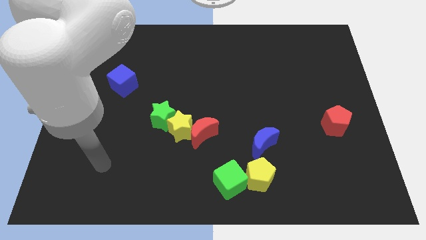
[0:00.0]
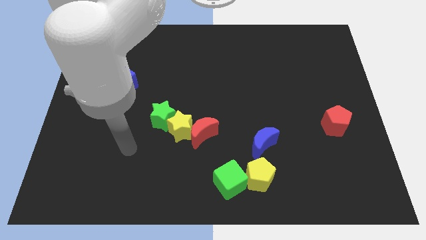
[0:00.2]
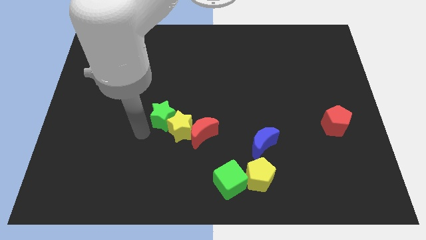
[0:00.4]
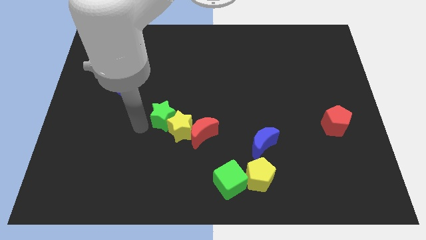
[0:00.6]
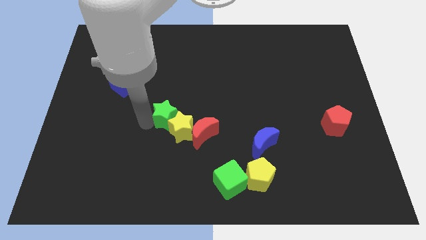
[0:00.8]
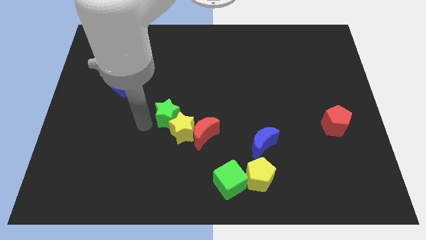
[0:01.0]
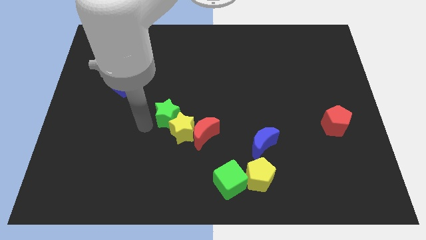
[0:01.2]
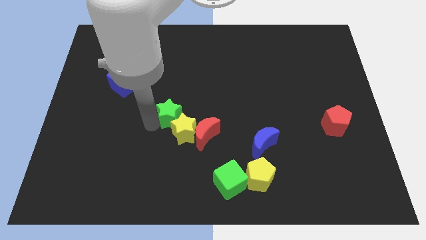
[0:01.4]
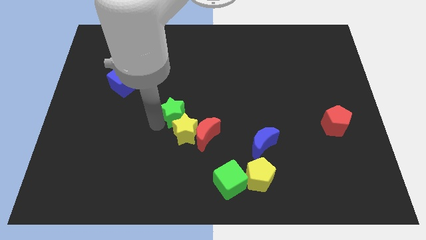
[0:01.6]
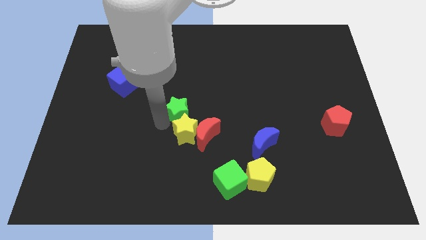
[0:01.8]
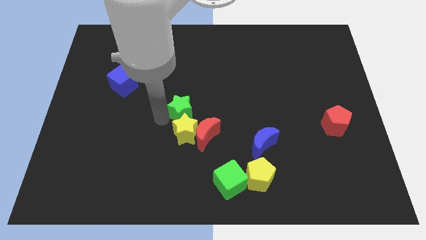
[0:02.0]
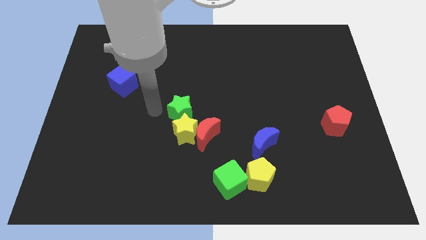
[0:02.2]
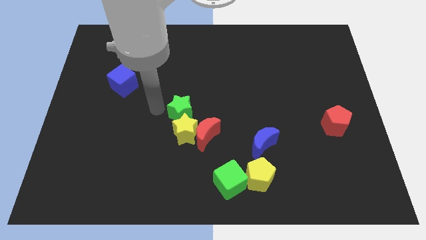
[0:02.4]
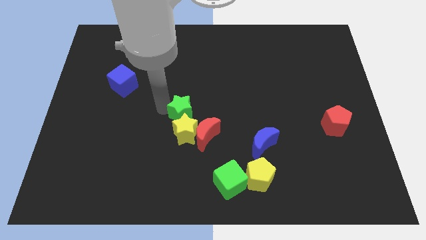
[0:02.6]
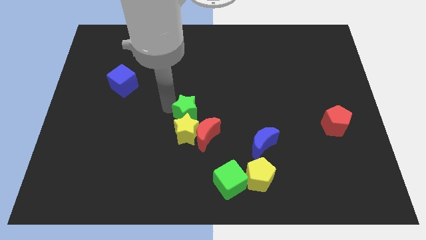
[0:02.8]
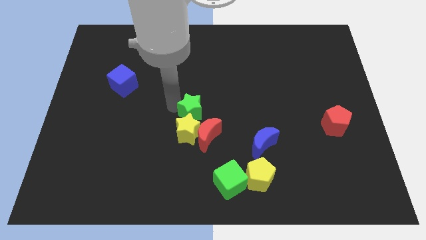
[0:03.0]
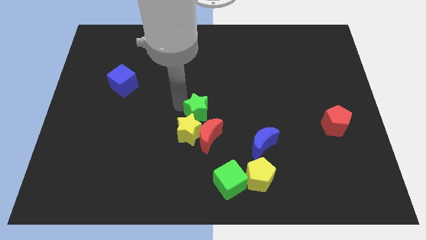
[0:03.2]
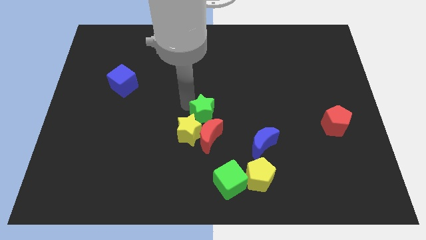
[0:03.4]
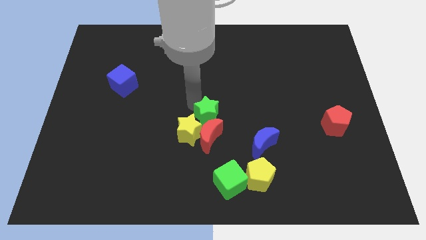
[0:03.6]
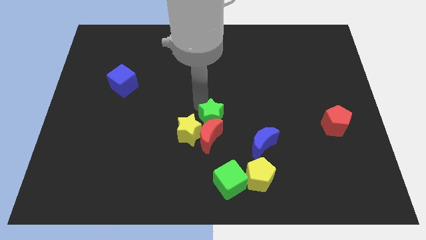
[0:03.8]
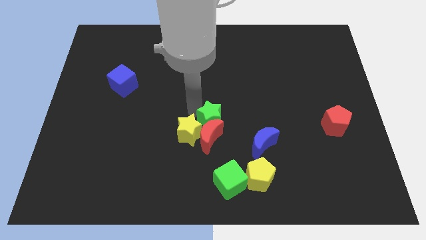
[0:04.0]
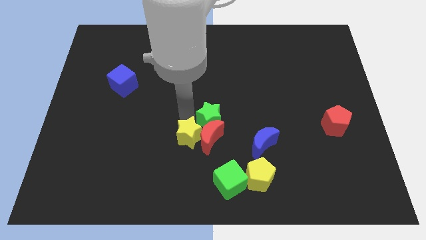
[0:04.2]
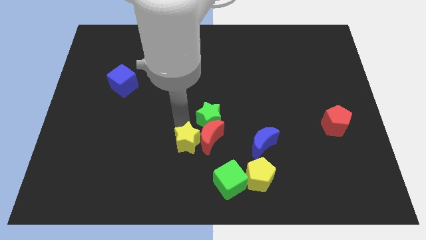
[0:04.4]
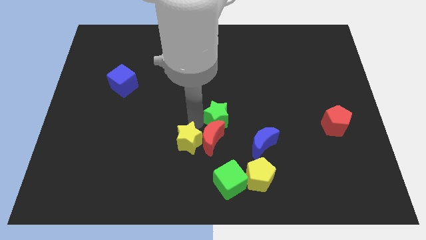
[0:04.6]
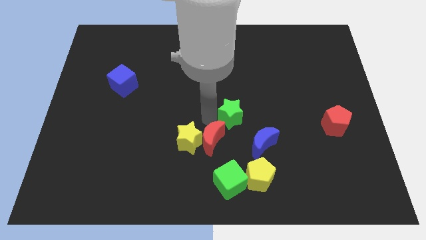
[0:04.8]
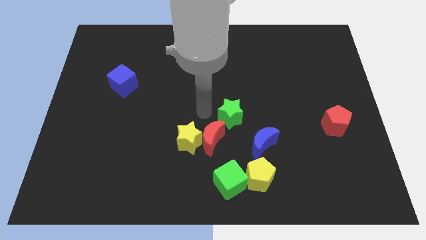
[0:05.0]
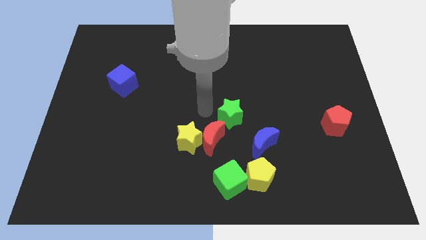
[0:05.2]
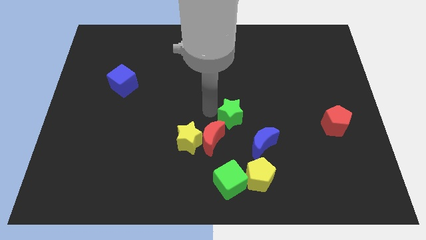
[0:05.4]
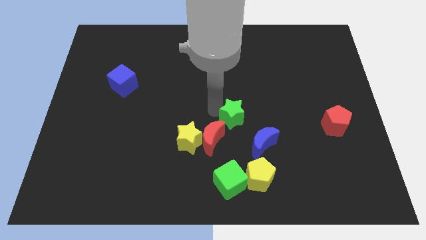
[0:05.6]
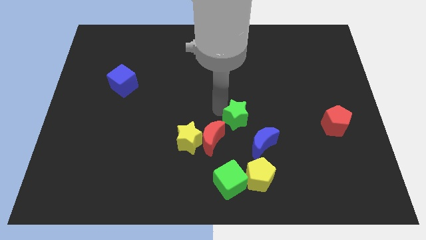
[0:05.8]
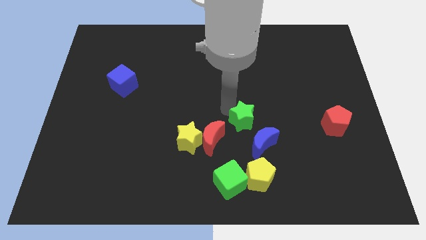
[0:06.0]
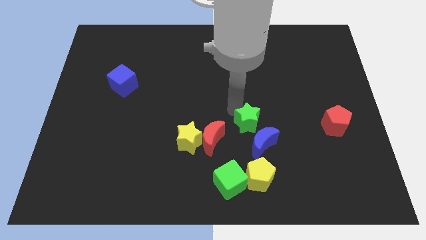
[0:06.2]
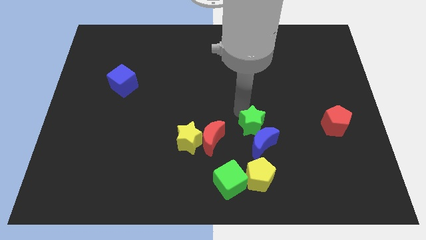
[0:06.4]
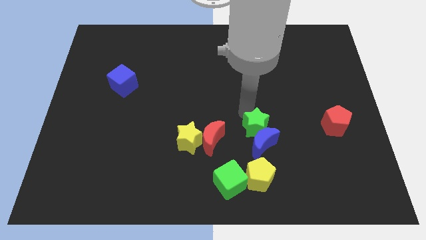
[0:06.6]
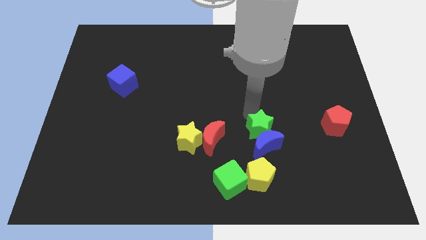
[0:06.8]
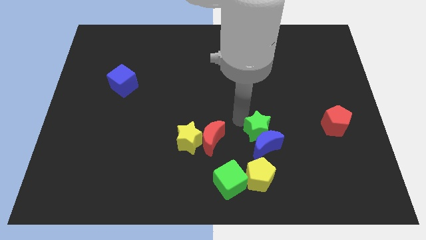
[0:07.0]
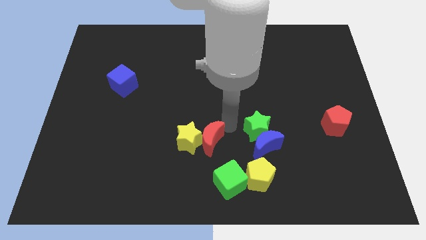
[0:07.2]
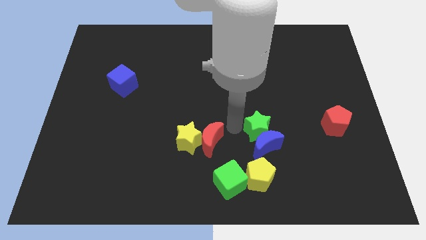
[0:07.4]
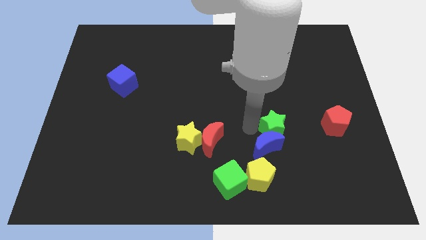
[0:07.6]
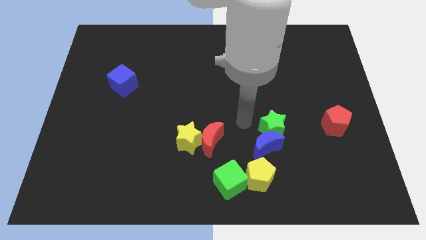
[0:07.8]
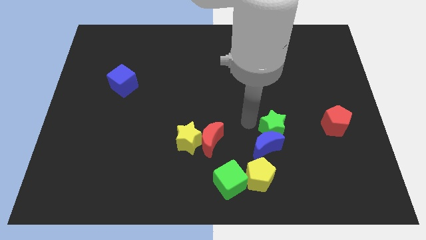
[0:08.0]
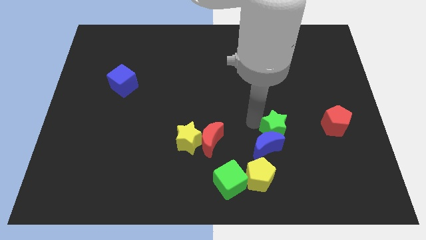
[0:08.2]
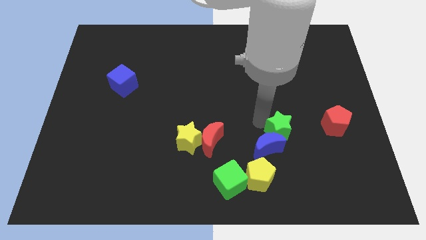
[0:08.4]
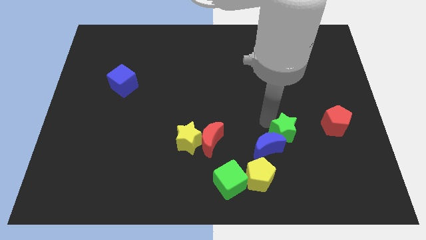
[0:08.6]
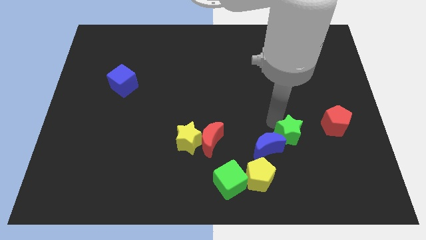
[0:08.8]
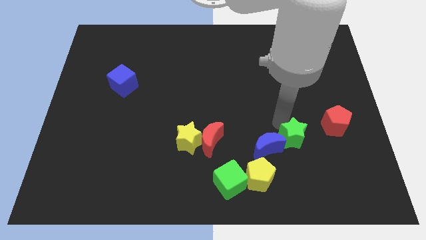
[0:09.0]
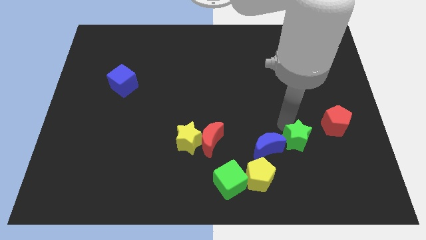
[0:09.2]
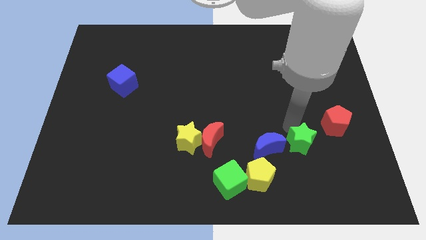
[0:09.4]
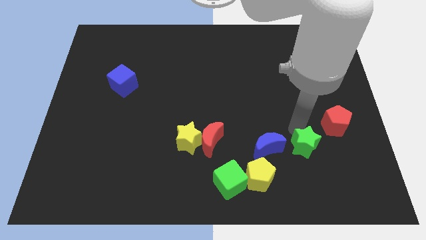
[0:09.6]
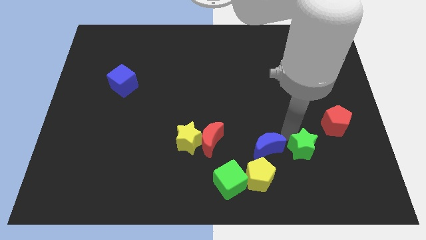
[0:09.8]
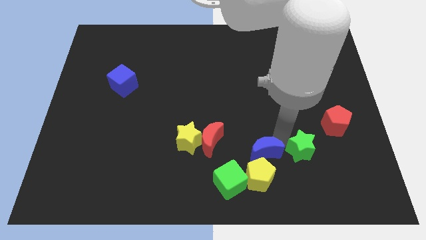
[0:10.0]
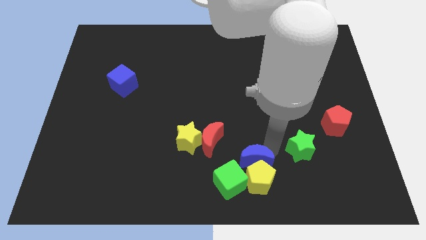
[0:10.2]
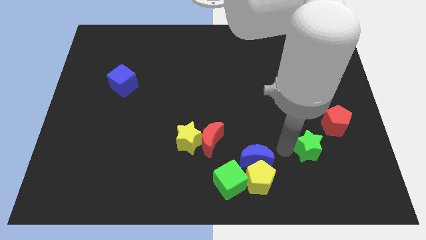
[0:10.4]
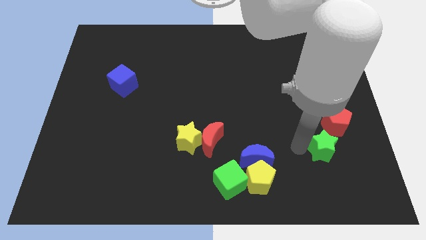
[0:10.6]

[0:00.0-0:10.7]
move the green star to the bottom side of the red pentagon

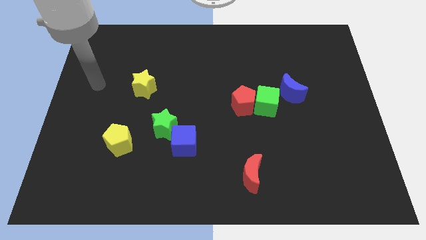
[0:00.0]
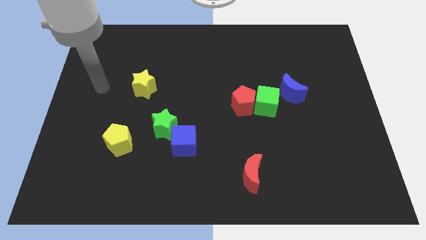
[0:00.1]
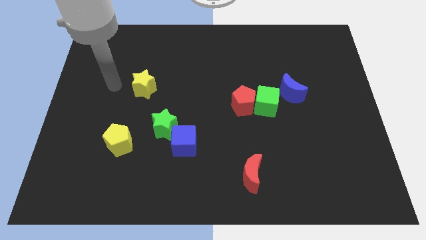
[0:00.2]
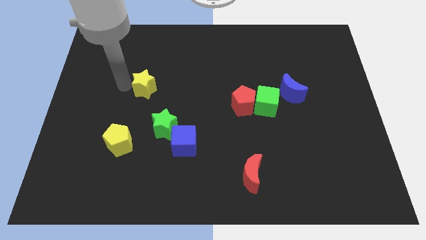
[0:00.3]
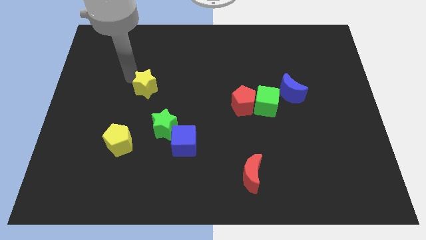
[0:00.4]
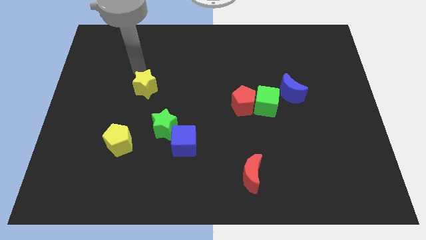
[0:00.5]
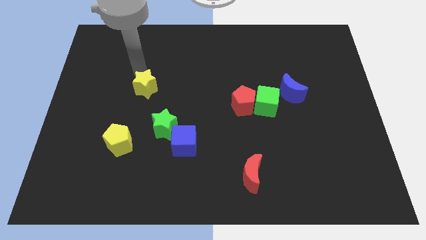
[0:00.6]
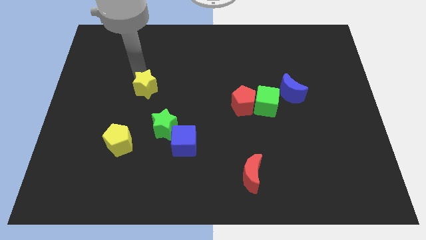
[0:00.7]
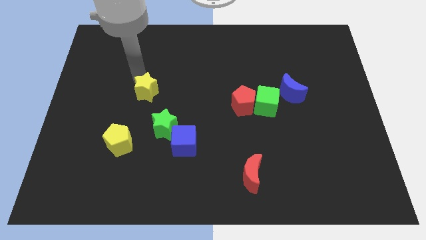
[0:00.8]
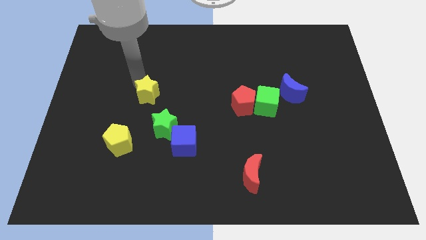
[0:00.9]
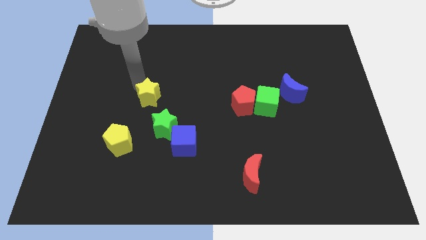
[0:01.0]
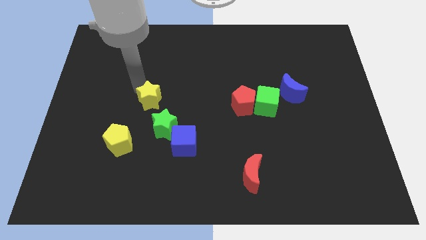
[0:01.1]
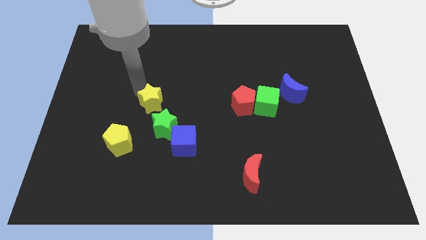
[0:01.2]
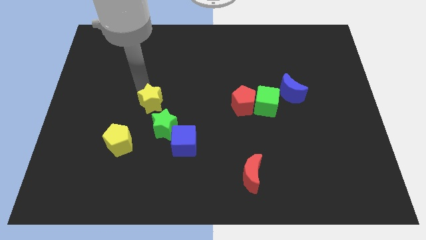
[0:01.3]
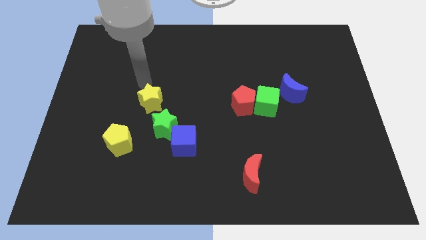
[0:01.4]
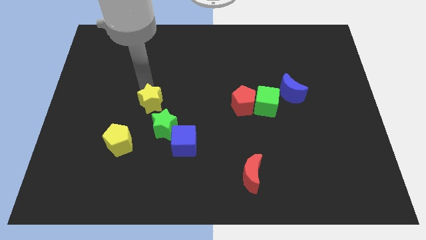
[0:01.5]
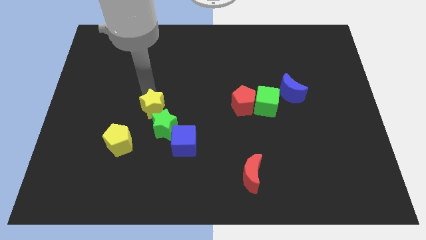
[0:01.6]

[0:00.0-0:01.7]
slide the yellow star to the top left side of the blue cube
